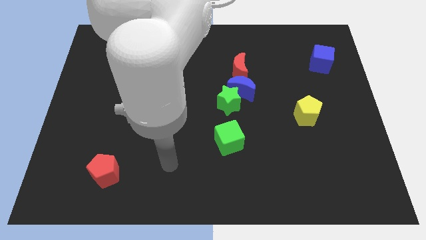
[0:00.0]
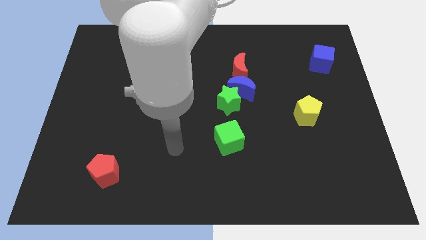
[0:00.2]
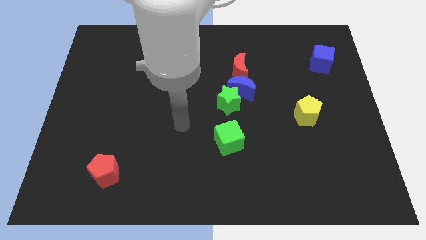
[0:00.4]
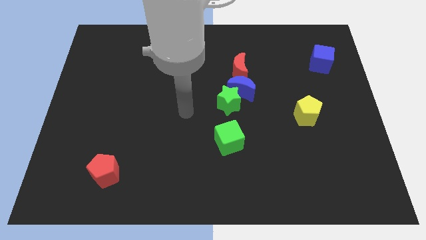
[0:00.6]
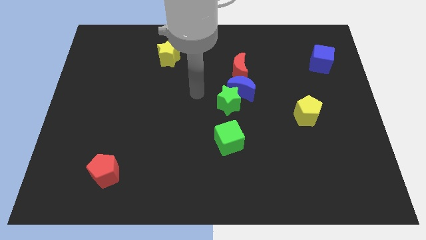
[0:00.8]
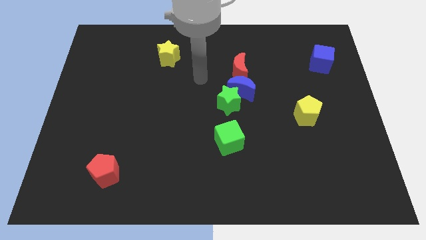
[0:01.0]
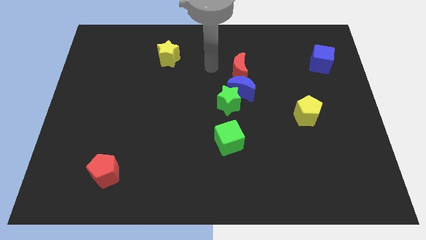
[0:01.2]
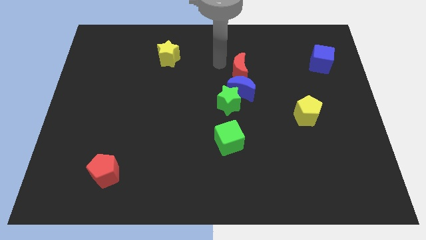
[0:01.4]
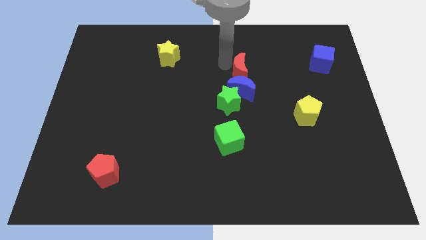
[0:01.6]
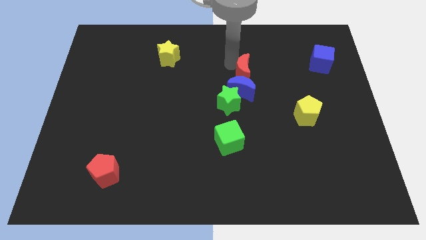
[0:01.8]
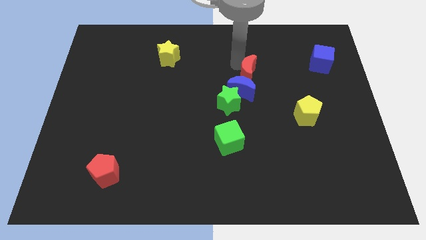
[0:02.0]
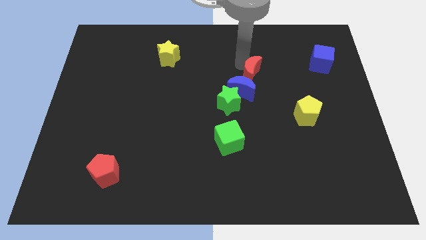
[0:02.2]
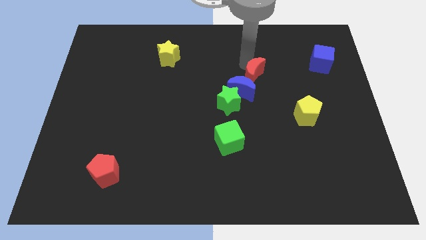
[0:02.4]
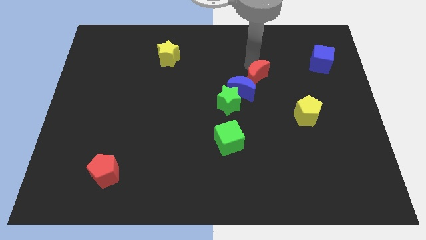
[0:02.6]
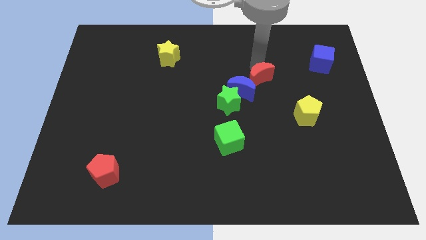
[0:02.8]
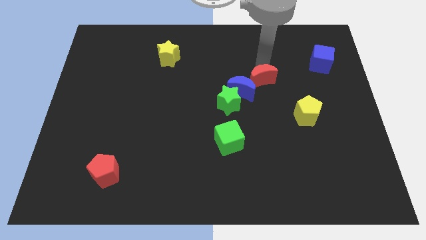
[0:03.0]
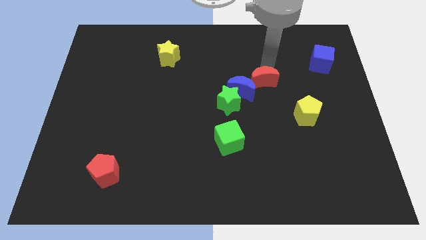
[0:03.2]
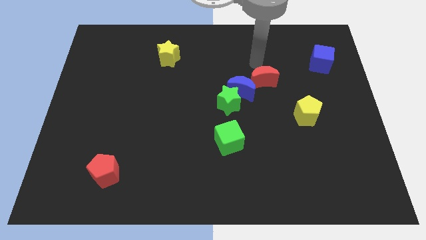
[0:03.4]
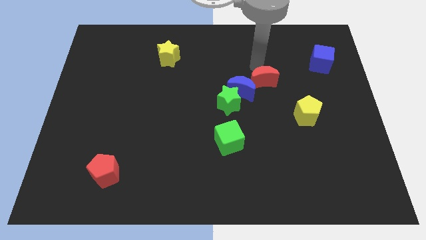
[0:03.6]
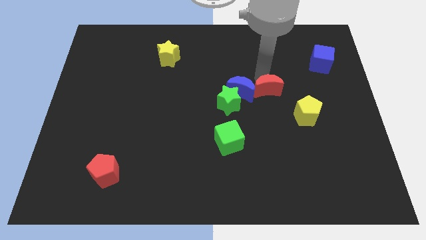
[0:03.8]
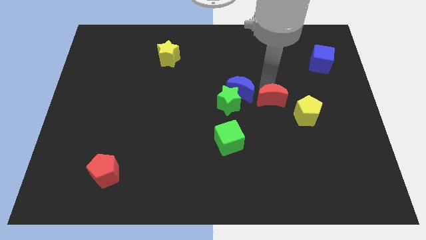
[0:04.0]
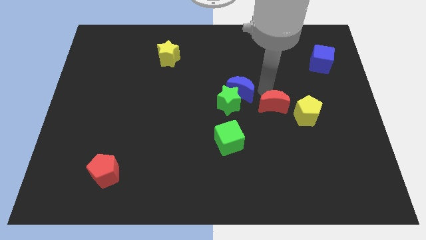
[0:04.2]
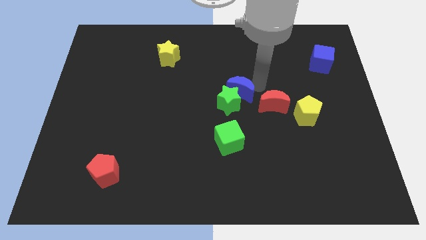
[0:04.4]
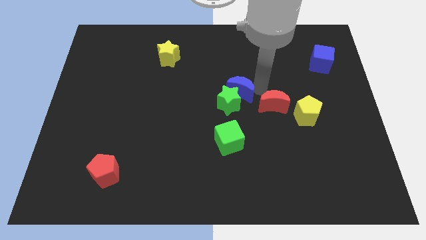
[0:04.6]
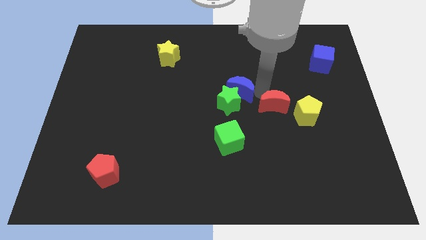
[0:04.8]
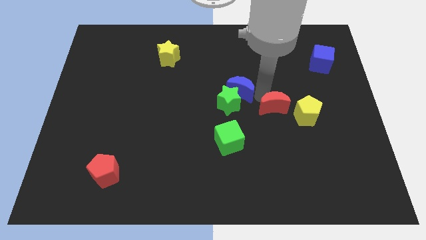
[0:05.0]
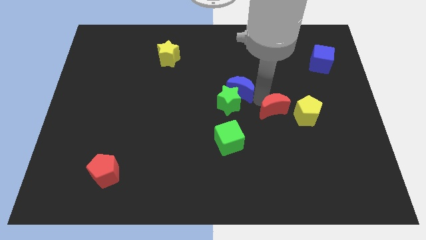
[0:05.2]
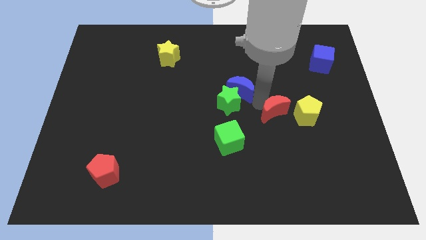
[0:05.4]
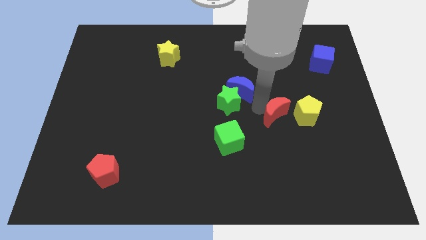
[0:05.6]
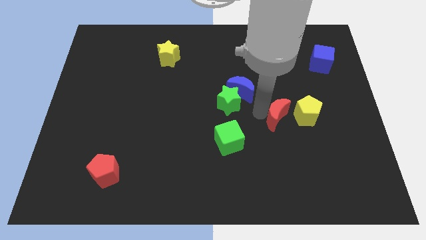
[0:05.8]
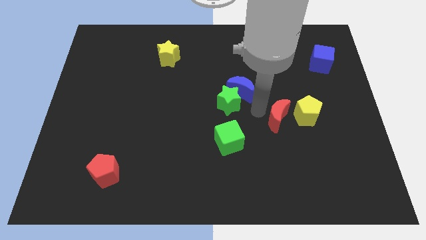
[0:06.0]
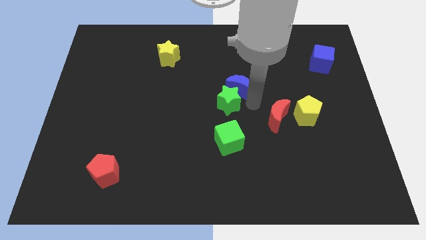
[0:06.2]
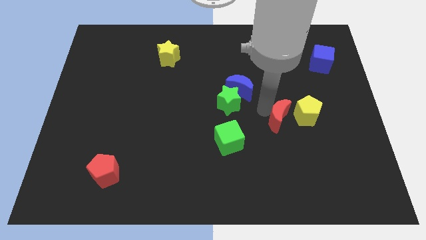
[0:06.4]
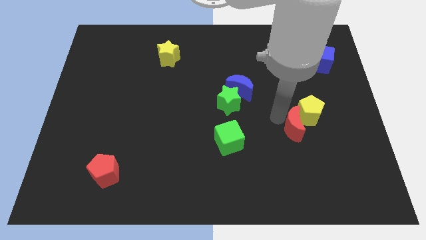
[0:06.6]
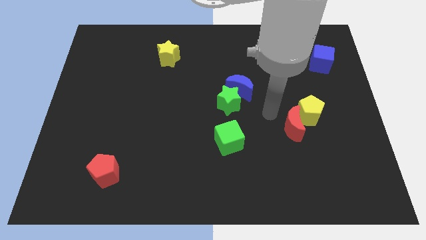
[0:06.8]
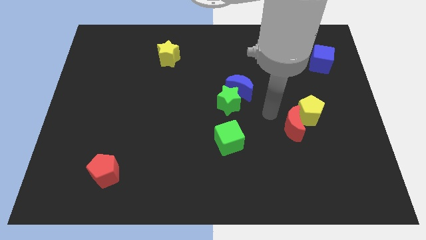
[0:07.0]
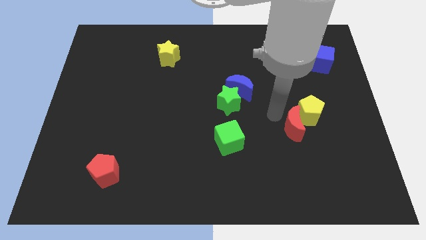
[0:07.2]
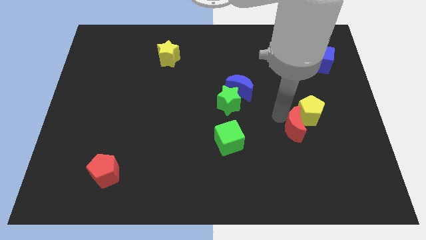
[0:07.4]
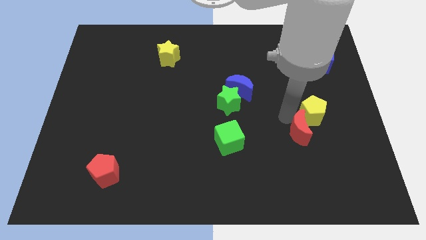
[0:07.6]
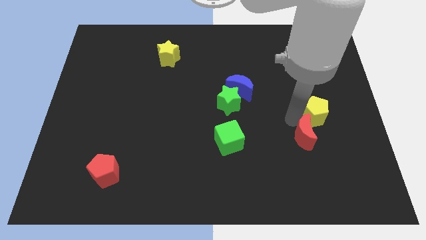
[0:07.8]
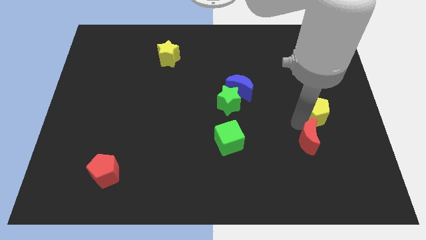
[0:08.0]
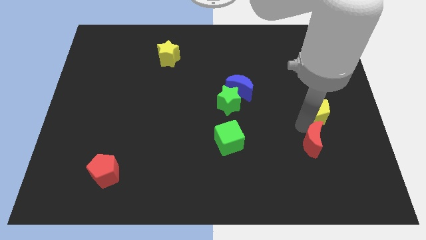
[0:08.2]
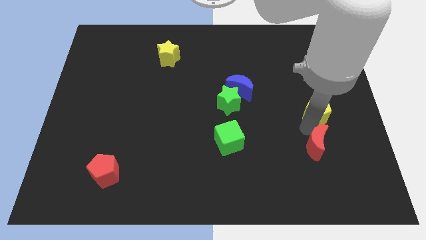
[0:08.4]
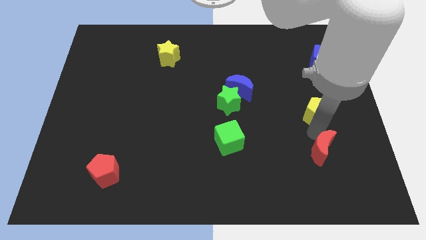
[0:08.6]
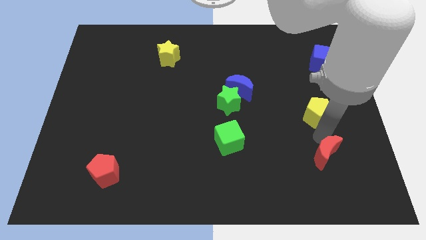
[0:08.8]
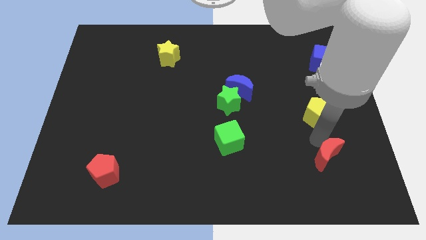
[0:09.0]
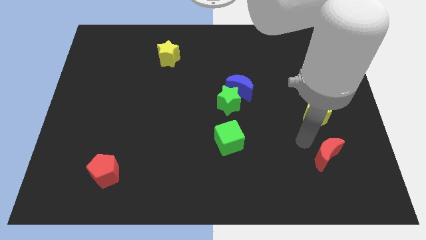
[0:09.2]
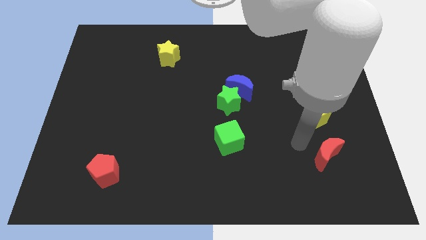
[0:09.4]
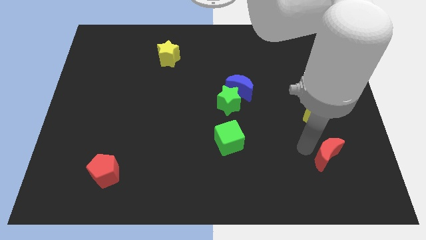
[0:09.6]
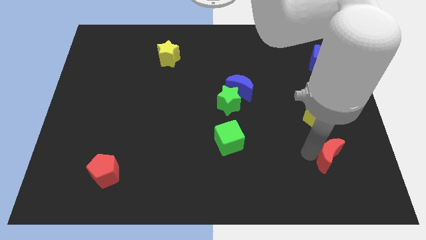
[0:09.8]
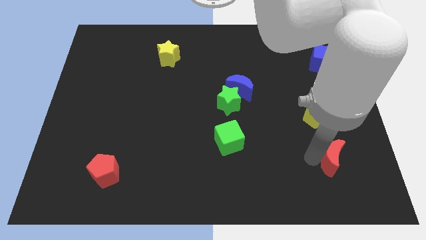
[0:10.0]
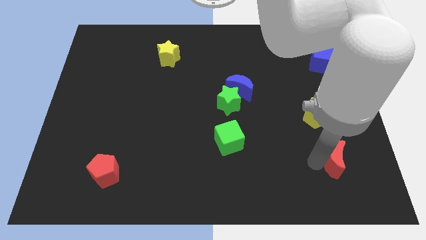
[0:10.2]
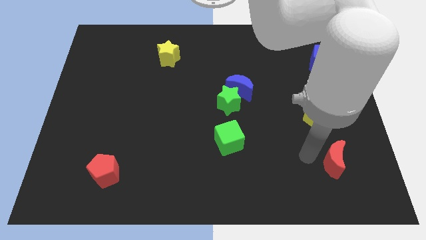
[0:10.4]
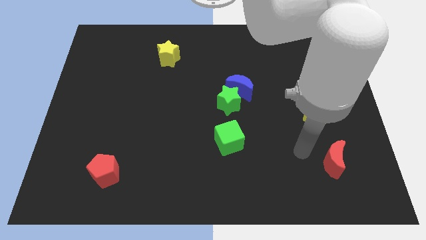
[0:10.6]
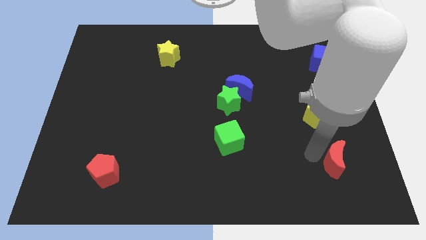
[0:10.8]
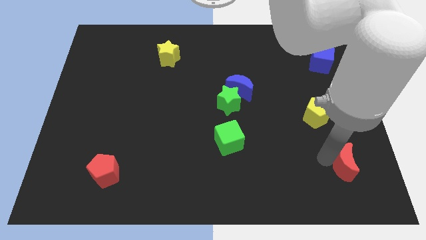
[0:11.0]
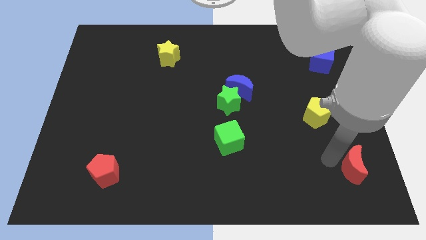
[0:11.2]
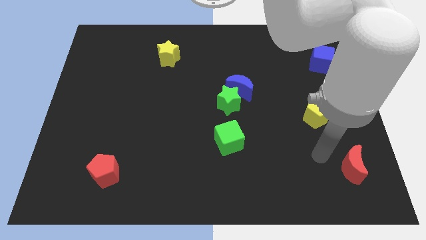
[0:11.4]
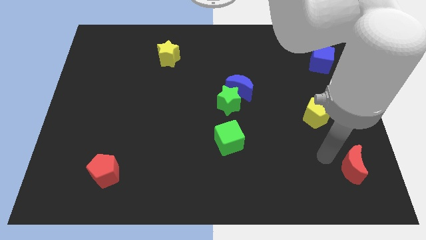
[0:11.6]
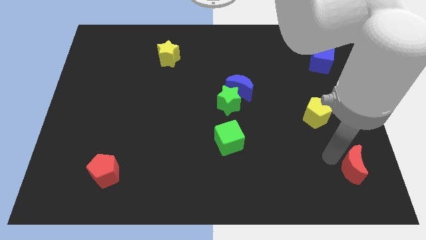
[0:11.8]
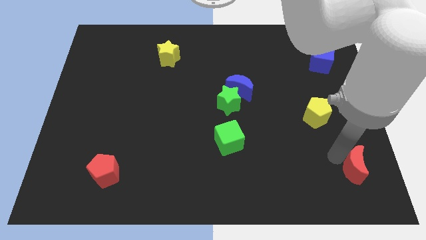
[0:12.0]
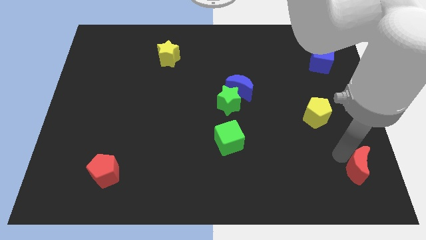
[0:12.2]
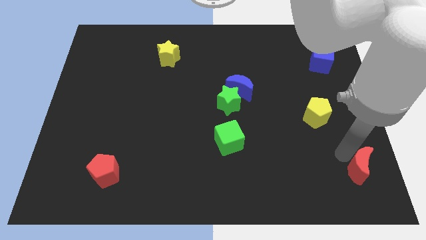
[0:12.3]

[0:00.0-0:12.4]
push the red moon to the bottom right

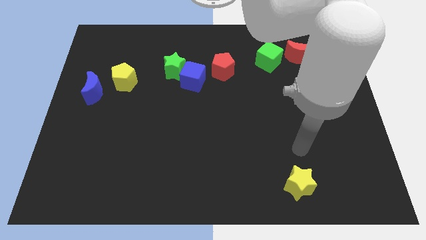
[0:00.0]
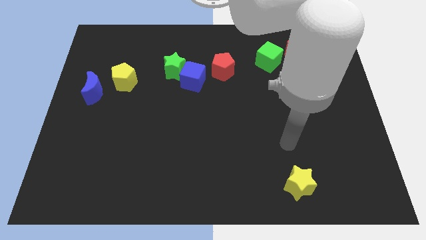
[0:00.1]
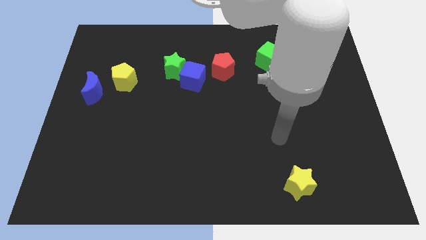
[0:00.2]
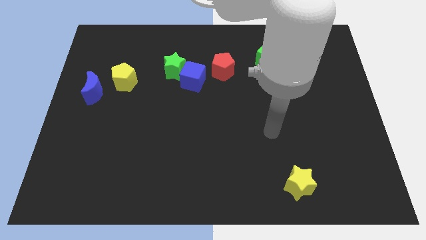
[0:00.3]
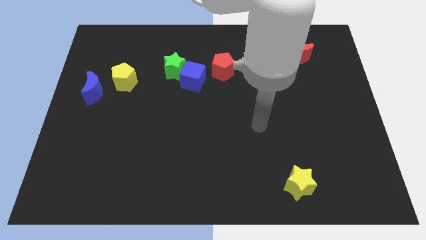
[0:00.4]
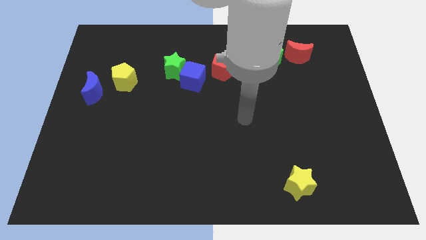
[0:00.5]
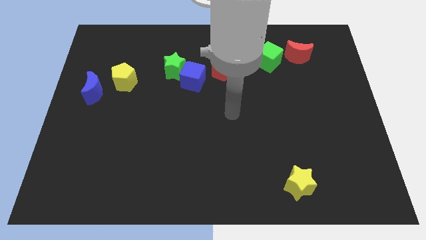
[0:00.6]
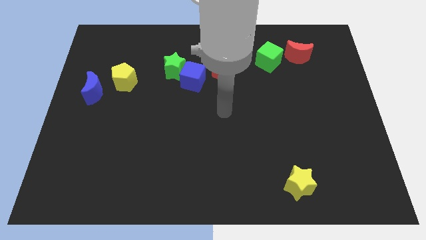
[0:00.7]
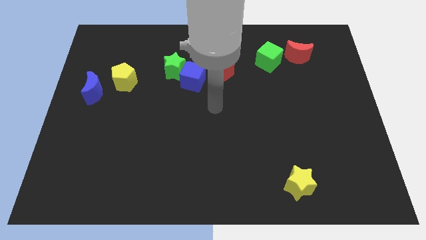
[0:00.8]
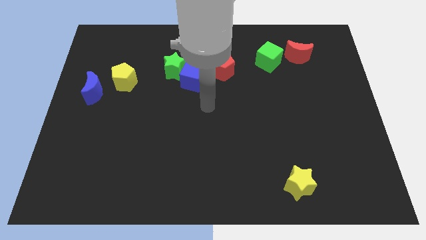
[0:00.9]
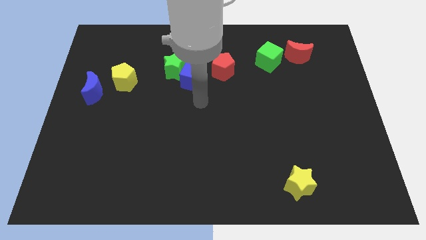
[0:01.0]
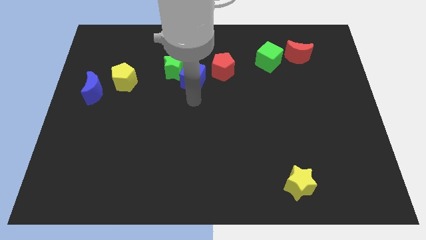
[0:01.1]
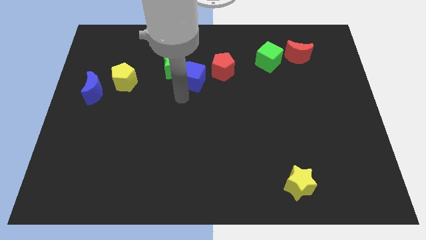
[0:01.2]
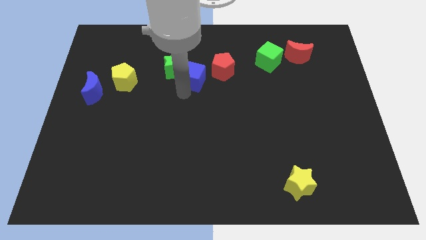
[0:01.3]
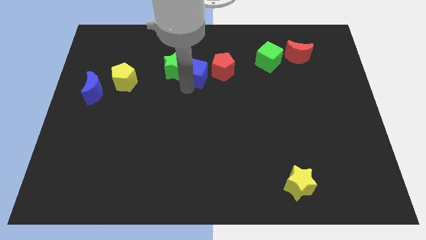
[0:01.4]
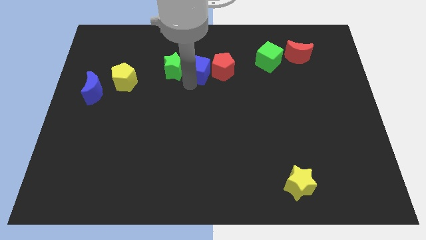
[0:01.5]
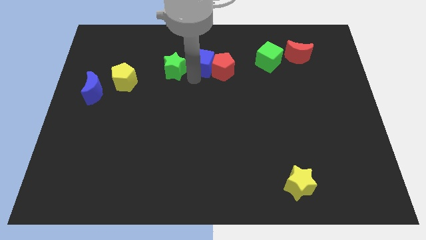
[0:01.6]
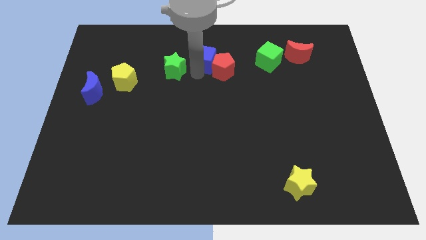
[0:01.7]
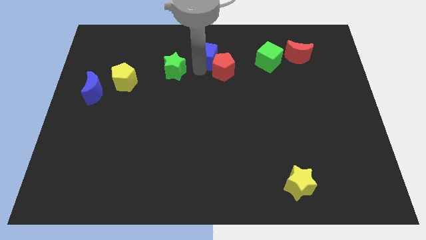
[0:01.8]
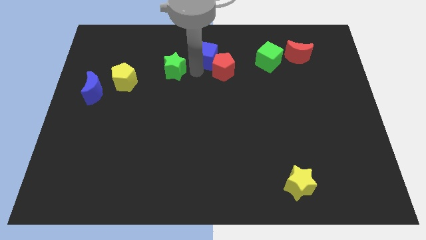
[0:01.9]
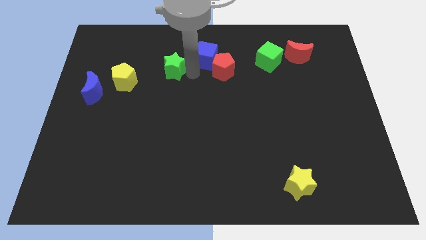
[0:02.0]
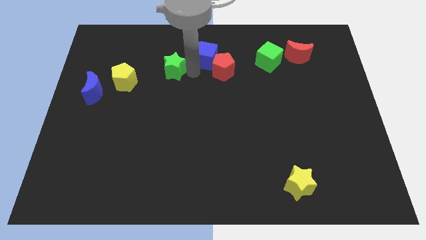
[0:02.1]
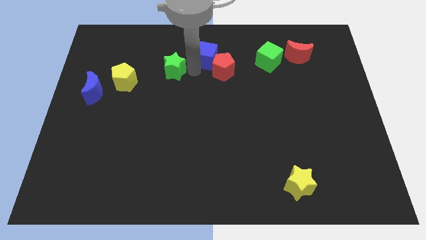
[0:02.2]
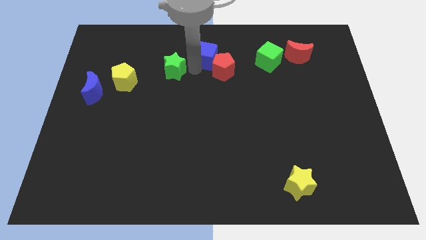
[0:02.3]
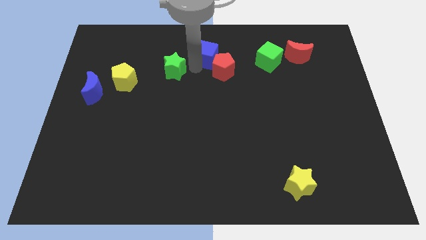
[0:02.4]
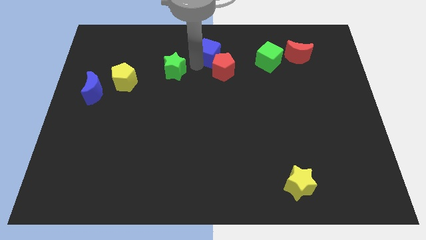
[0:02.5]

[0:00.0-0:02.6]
push the blue cube to the towards your base
